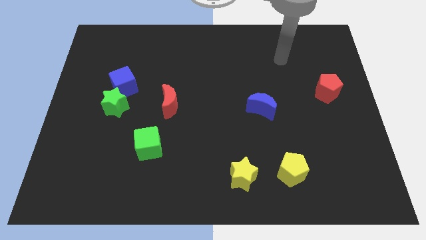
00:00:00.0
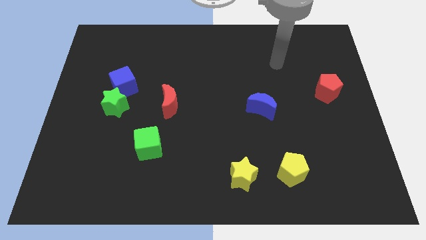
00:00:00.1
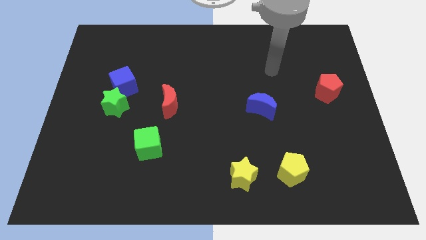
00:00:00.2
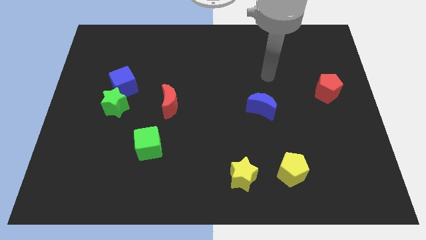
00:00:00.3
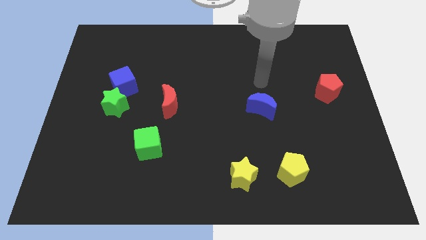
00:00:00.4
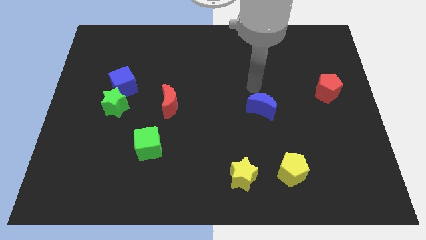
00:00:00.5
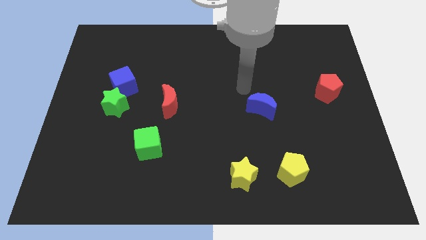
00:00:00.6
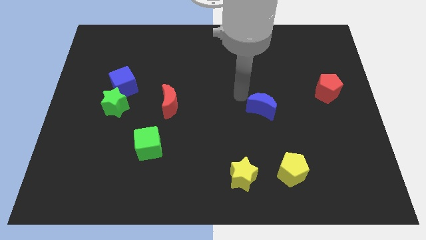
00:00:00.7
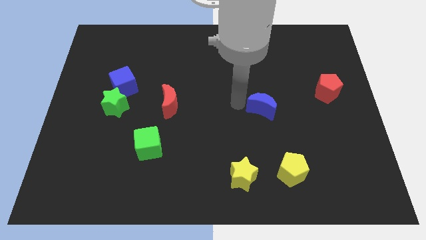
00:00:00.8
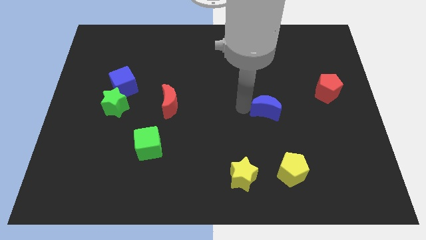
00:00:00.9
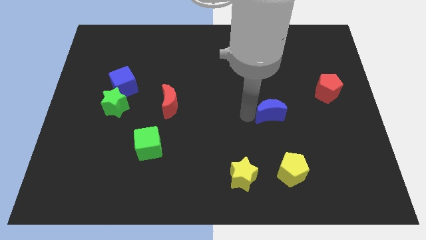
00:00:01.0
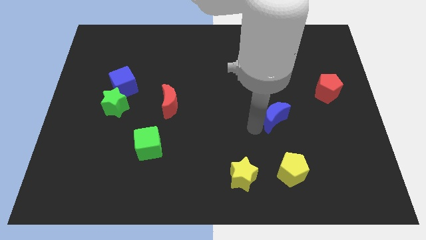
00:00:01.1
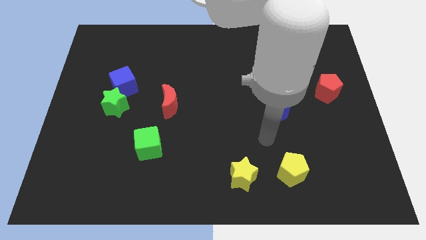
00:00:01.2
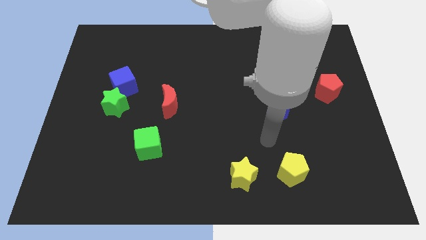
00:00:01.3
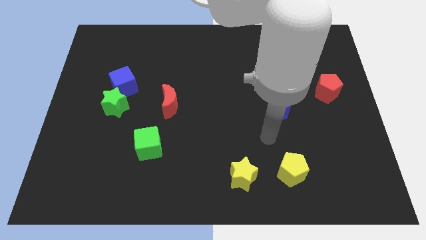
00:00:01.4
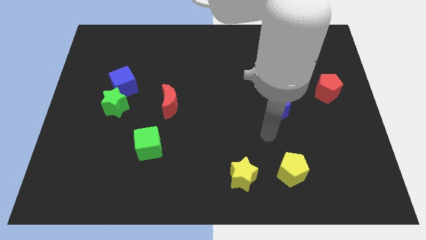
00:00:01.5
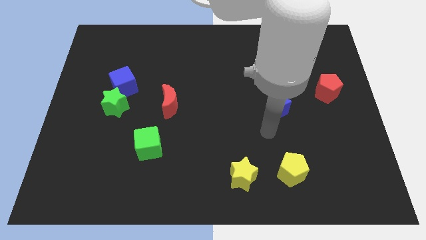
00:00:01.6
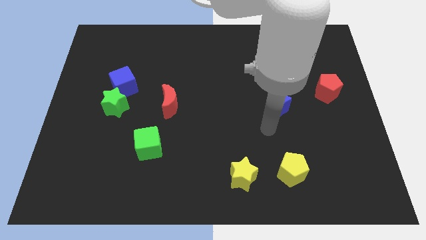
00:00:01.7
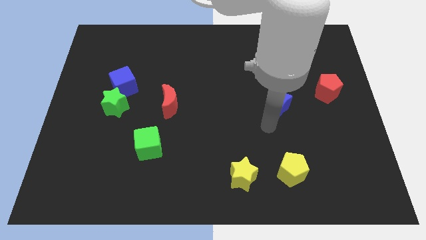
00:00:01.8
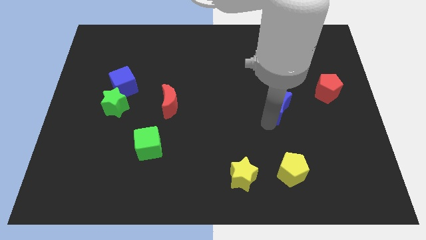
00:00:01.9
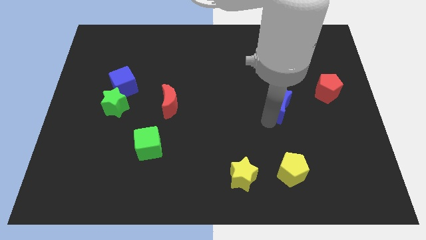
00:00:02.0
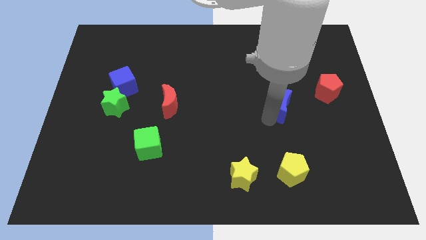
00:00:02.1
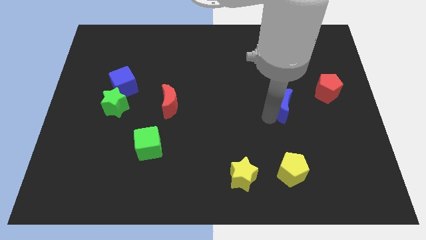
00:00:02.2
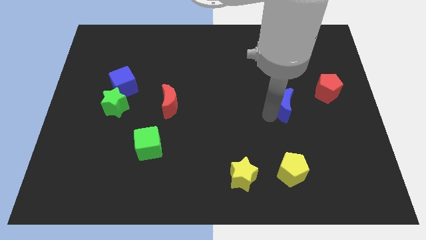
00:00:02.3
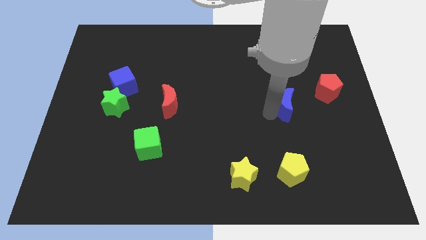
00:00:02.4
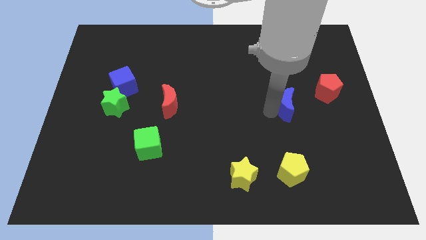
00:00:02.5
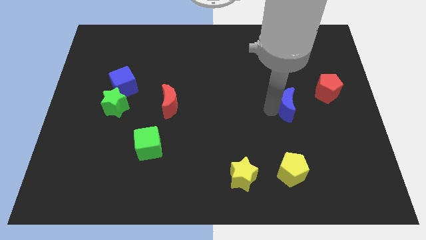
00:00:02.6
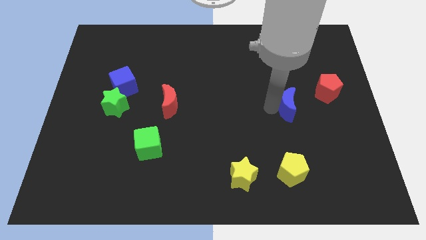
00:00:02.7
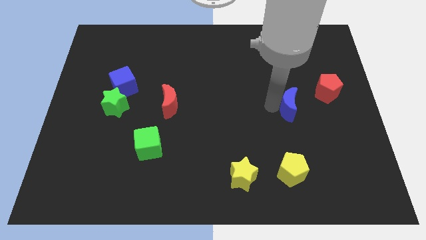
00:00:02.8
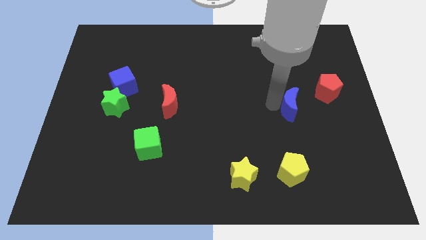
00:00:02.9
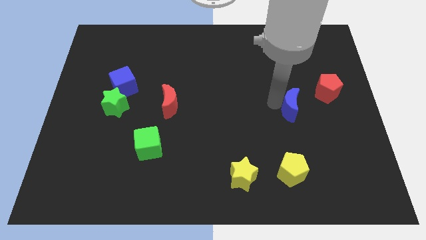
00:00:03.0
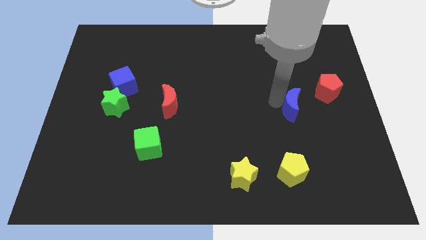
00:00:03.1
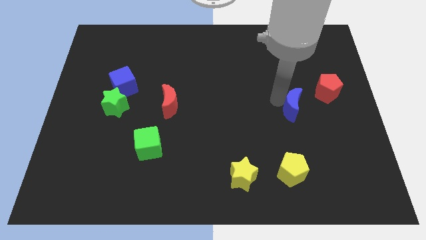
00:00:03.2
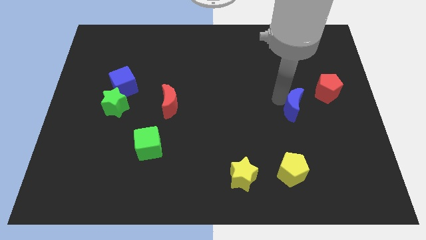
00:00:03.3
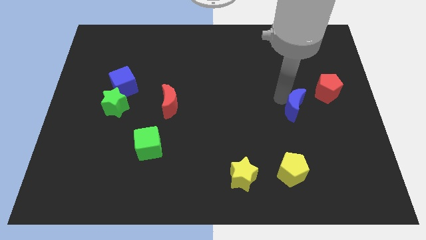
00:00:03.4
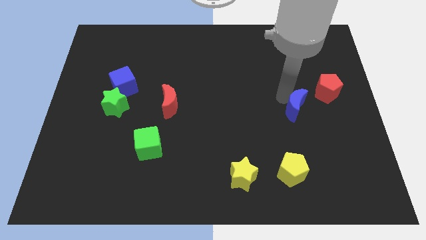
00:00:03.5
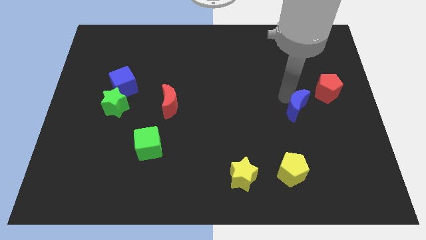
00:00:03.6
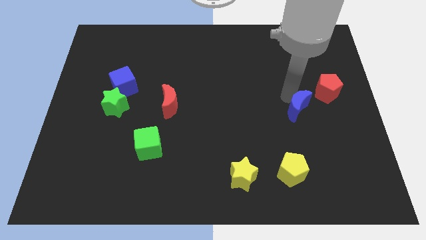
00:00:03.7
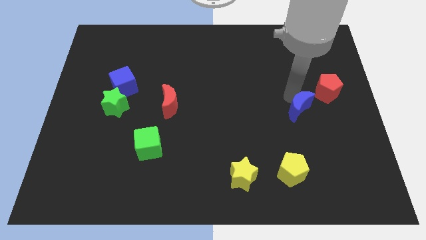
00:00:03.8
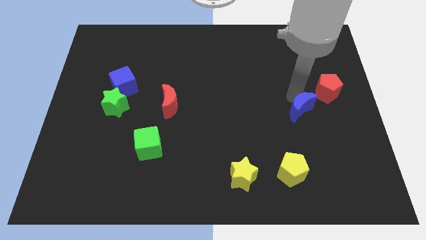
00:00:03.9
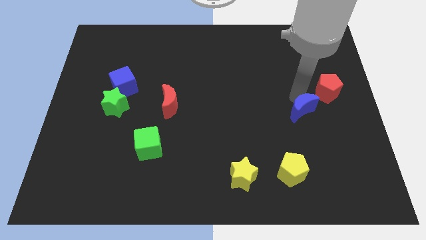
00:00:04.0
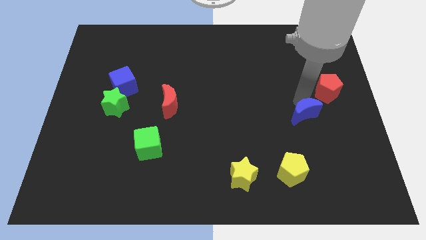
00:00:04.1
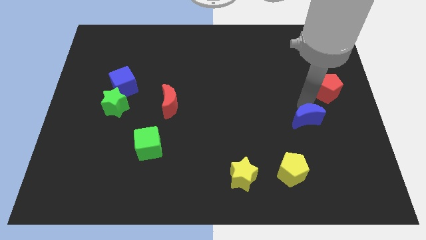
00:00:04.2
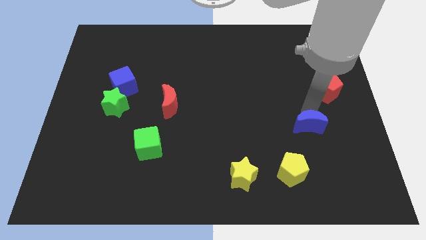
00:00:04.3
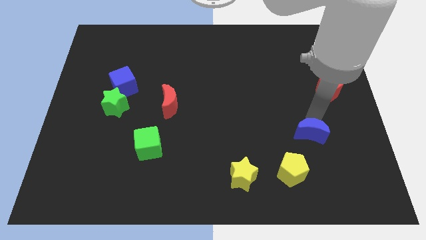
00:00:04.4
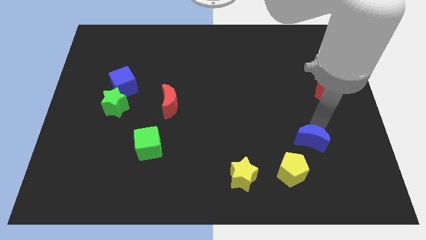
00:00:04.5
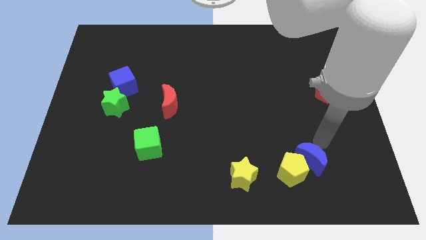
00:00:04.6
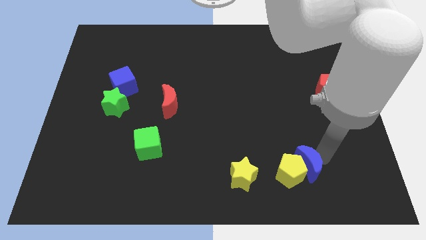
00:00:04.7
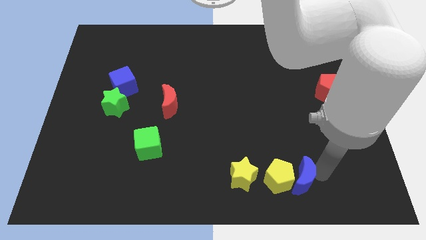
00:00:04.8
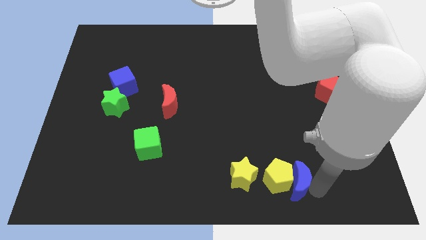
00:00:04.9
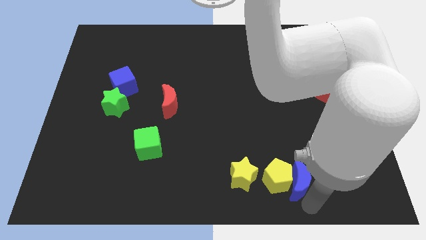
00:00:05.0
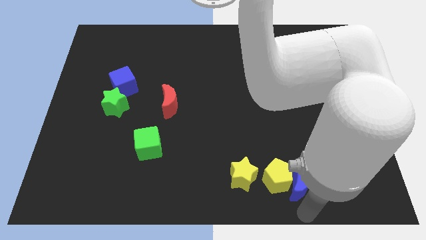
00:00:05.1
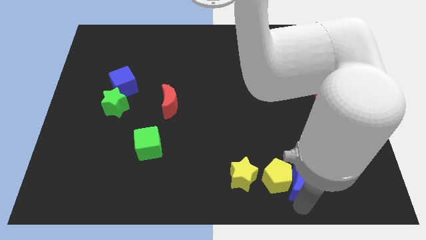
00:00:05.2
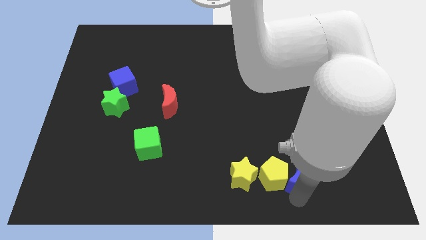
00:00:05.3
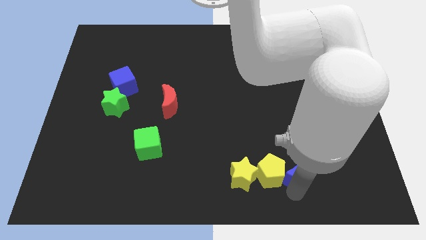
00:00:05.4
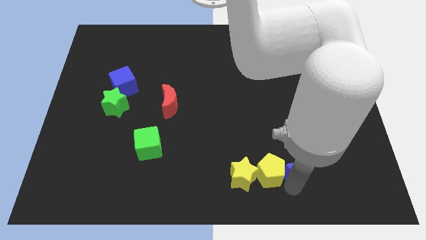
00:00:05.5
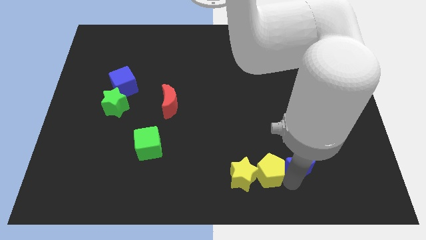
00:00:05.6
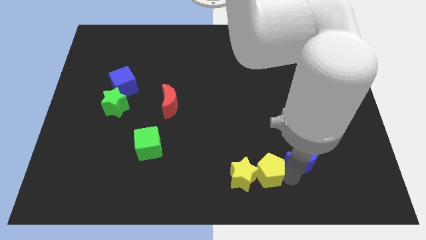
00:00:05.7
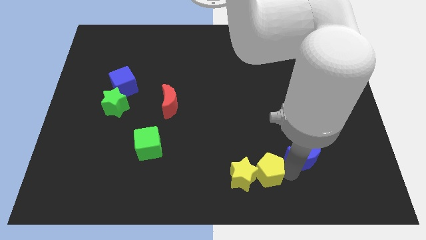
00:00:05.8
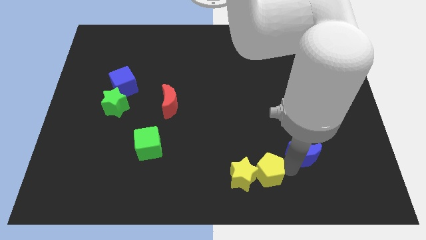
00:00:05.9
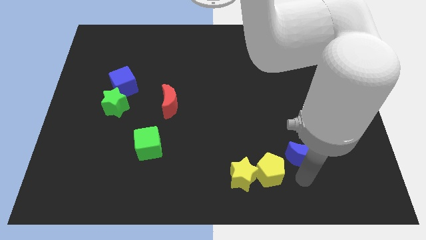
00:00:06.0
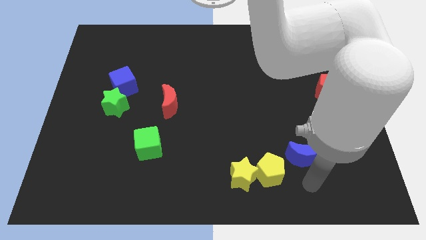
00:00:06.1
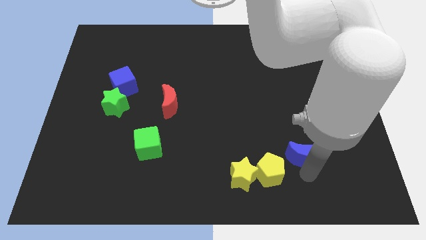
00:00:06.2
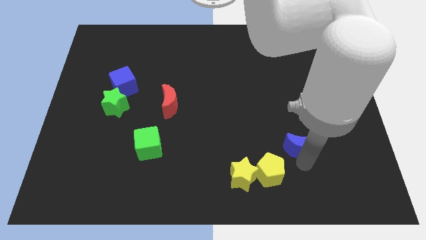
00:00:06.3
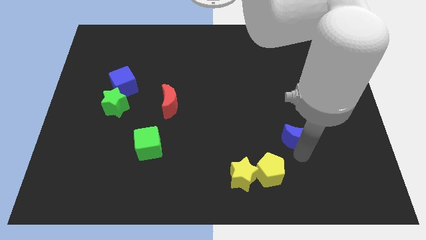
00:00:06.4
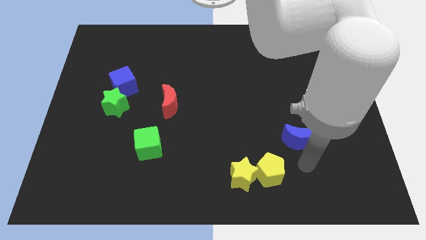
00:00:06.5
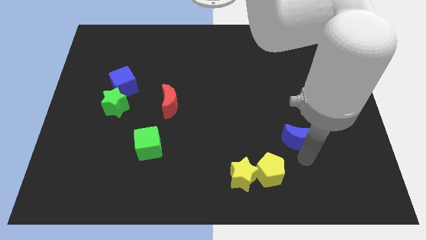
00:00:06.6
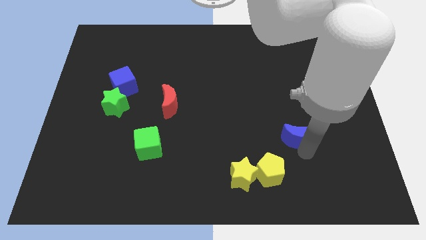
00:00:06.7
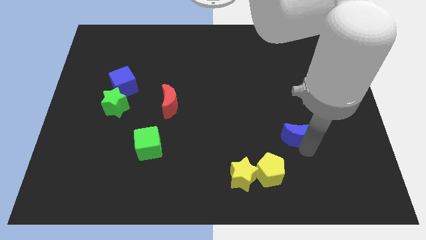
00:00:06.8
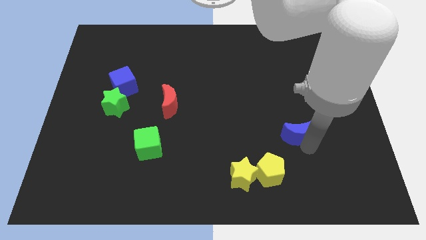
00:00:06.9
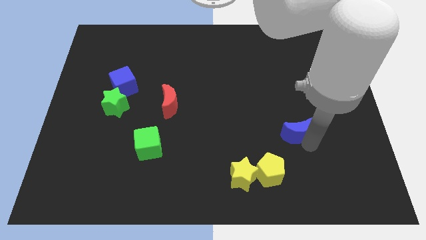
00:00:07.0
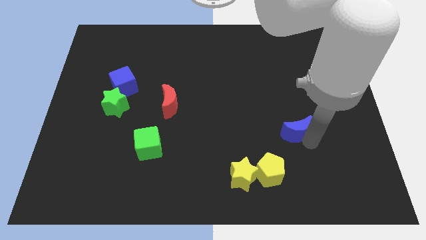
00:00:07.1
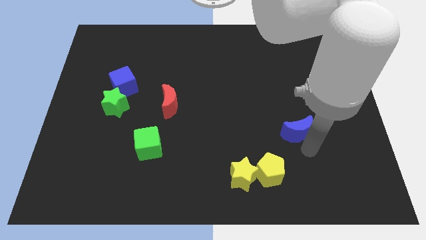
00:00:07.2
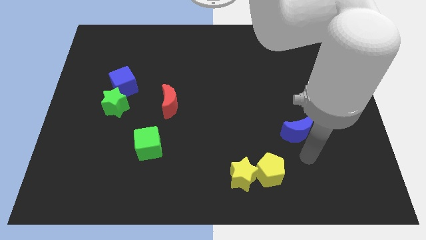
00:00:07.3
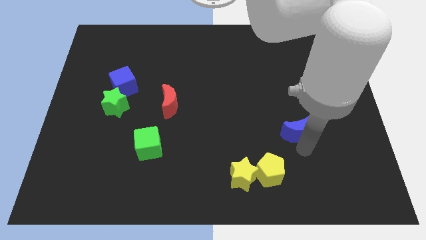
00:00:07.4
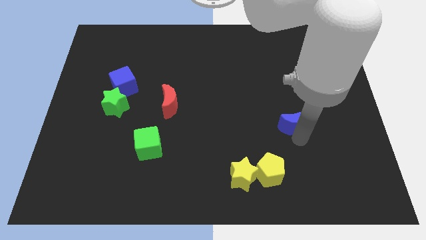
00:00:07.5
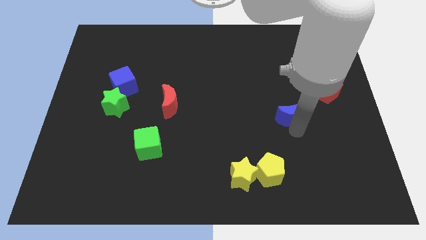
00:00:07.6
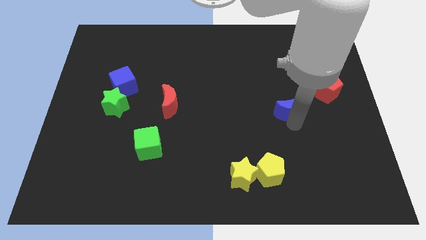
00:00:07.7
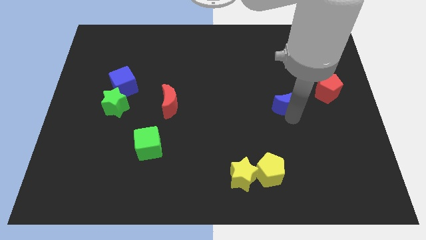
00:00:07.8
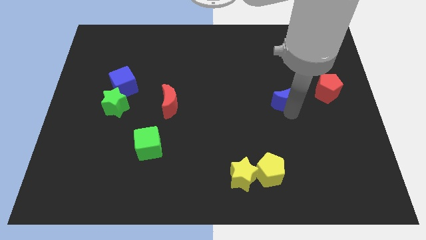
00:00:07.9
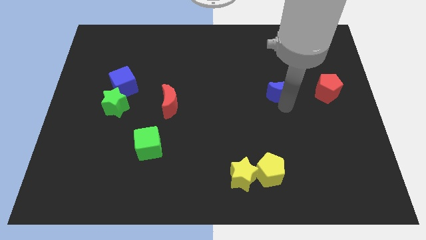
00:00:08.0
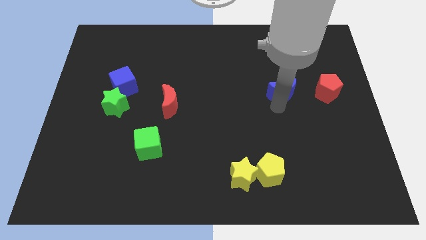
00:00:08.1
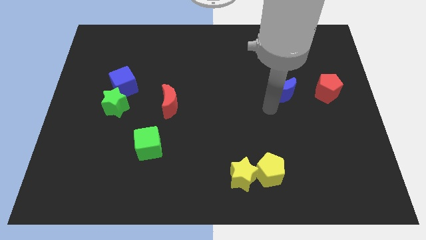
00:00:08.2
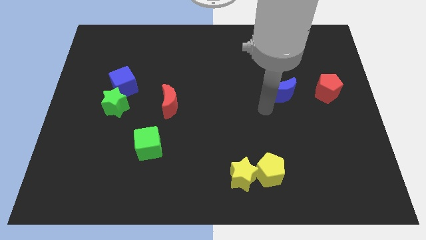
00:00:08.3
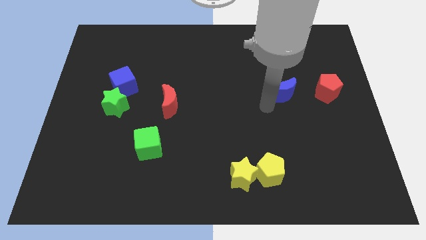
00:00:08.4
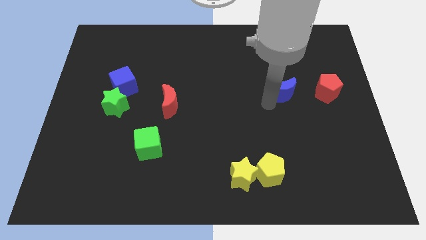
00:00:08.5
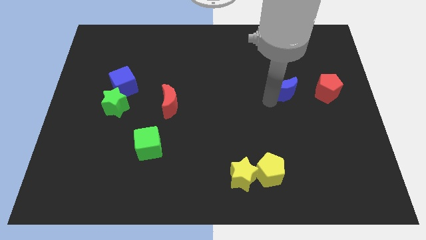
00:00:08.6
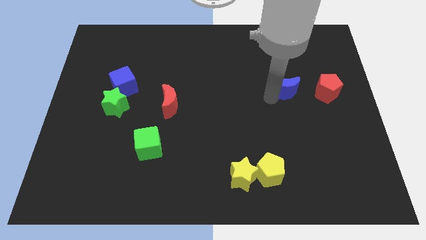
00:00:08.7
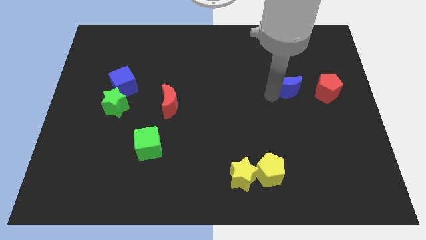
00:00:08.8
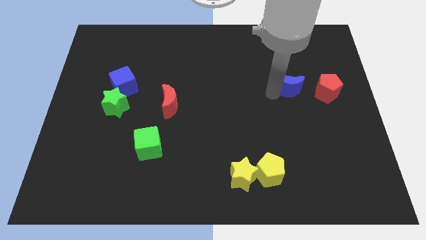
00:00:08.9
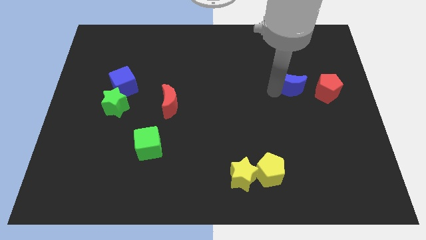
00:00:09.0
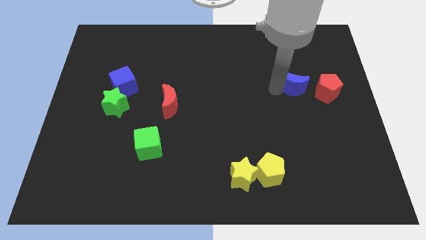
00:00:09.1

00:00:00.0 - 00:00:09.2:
push the blue moon to the top left side of the red pentagon
